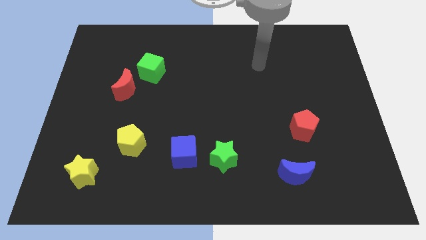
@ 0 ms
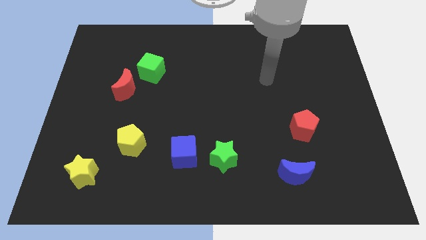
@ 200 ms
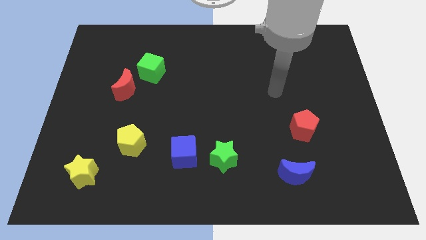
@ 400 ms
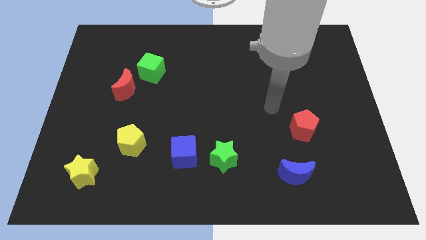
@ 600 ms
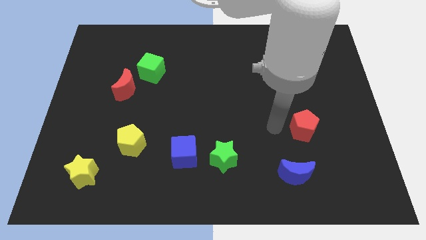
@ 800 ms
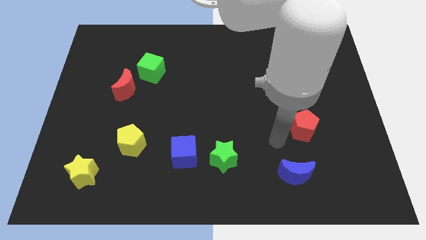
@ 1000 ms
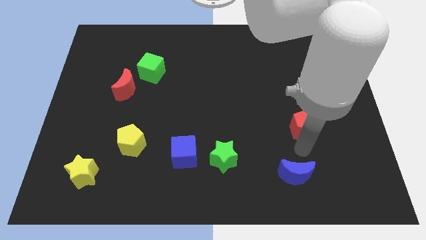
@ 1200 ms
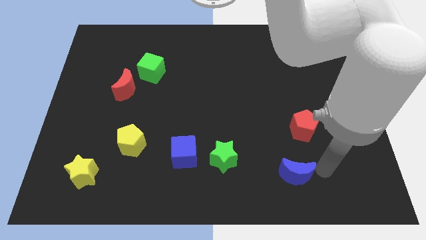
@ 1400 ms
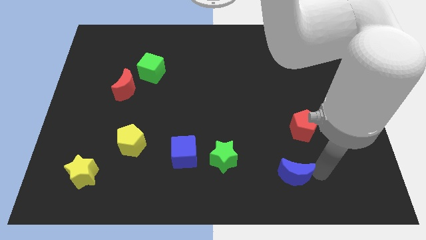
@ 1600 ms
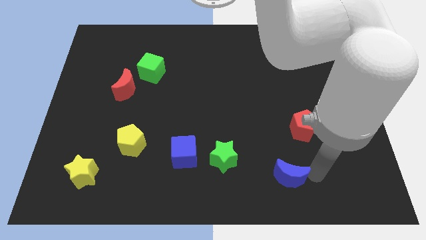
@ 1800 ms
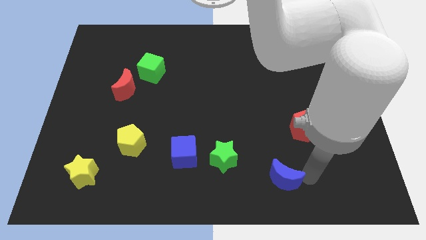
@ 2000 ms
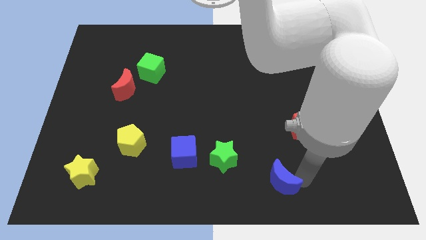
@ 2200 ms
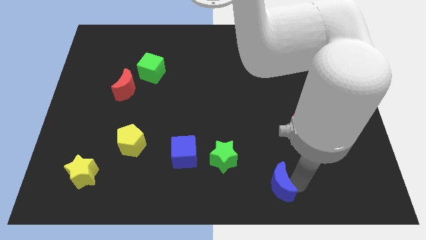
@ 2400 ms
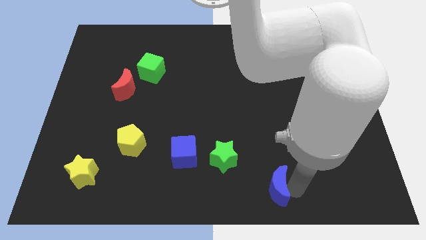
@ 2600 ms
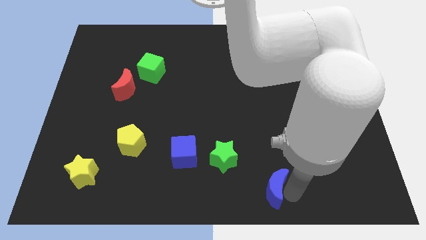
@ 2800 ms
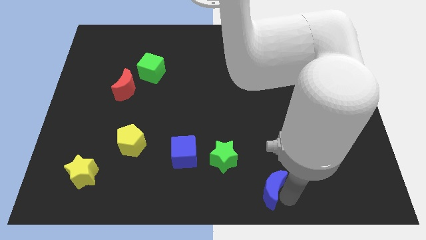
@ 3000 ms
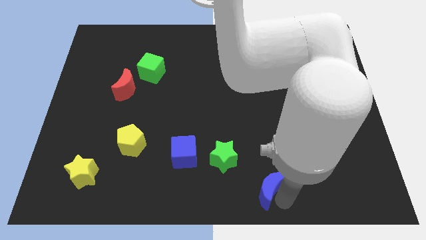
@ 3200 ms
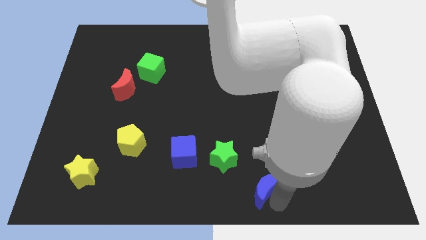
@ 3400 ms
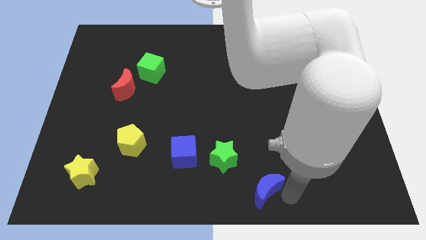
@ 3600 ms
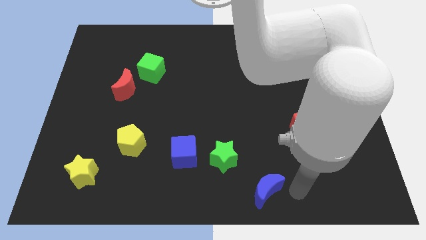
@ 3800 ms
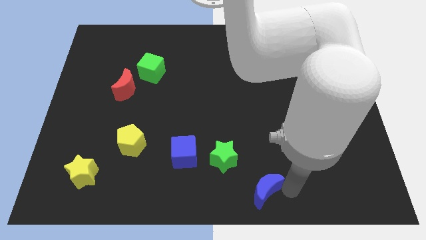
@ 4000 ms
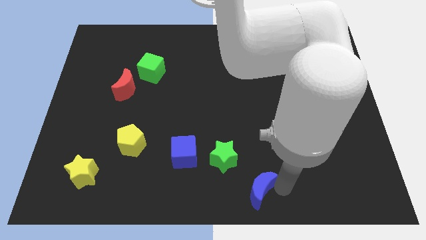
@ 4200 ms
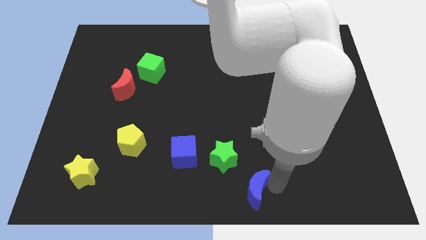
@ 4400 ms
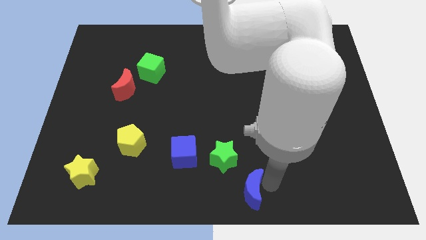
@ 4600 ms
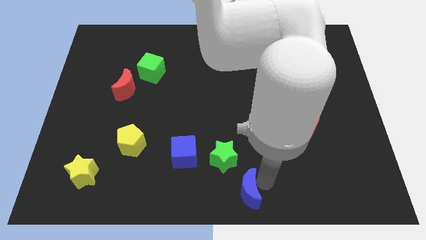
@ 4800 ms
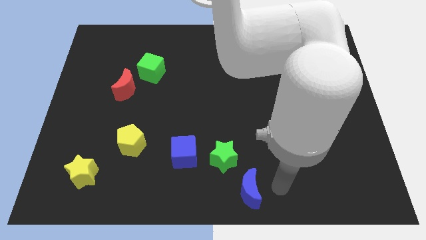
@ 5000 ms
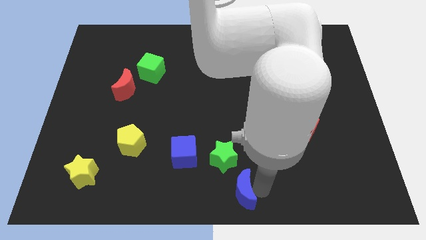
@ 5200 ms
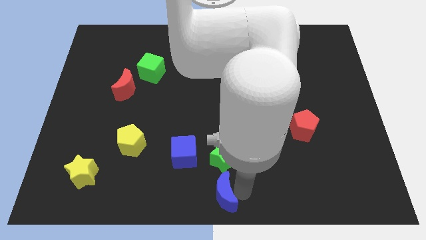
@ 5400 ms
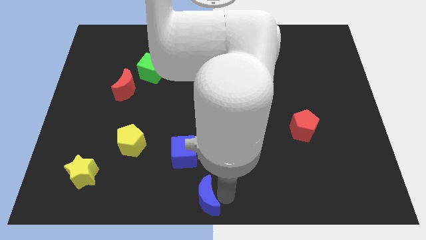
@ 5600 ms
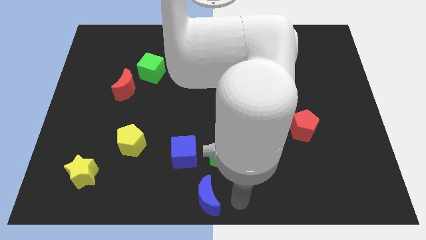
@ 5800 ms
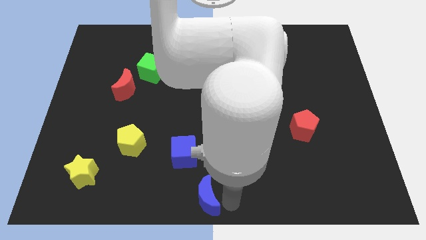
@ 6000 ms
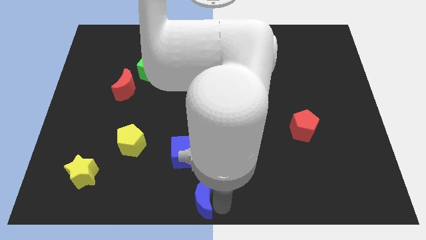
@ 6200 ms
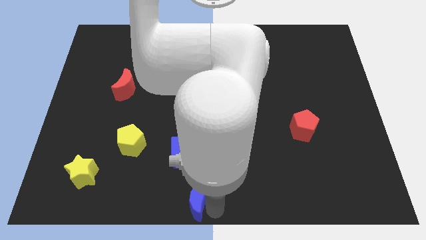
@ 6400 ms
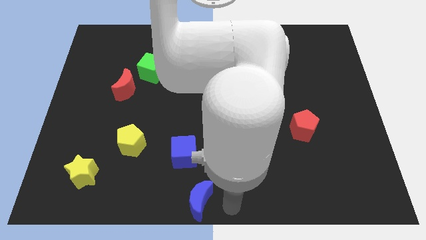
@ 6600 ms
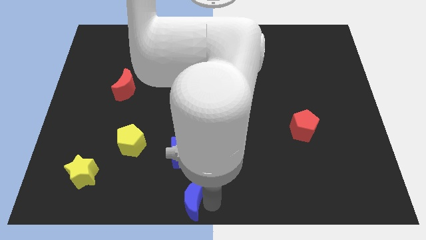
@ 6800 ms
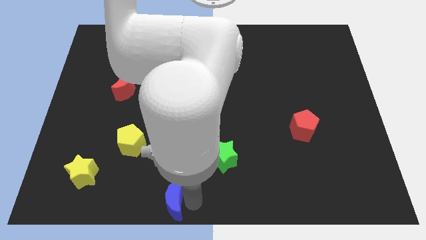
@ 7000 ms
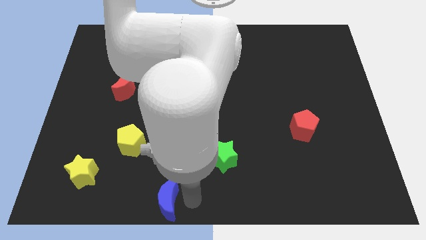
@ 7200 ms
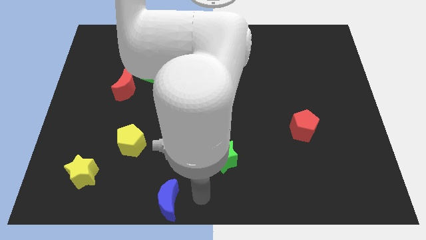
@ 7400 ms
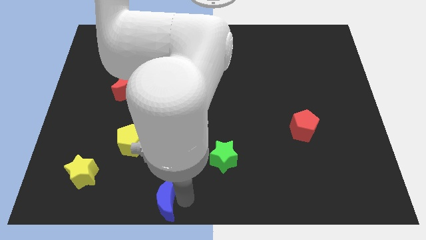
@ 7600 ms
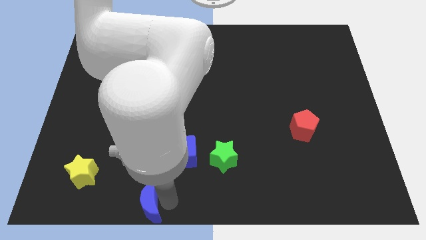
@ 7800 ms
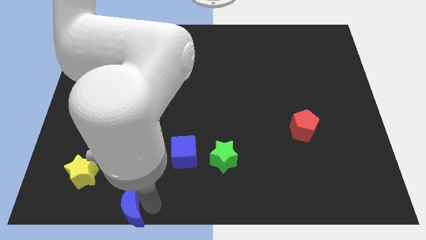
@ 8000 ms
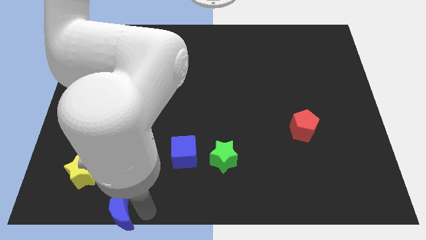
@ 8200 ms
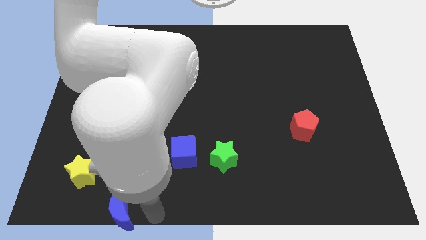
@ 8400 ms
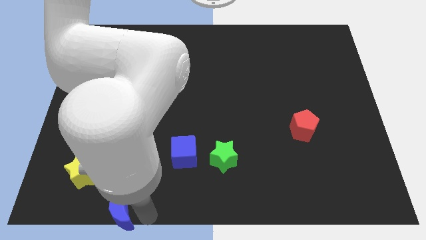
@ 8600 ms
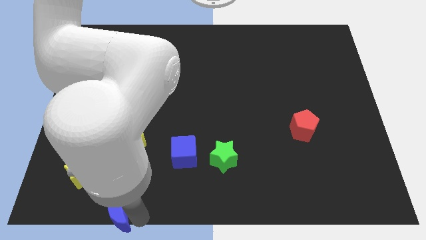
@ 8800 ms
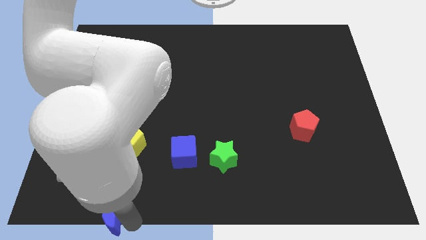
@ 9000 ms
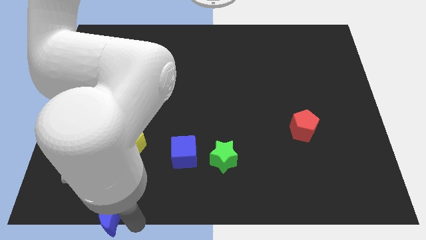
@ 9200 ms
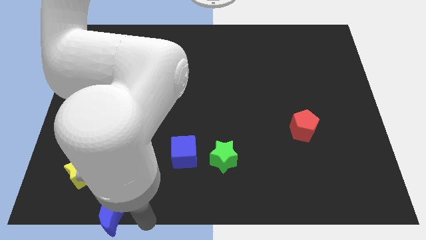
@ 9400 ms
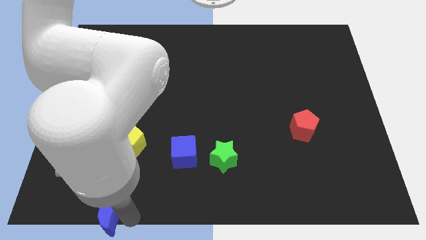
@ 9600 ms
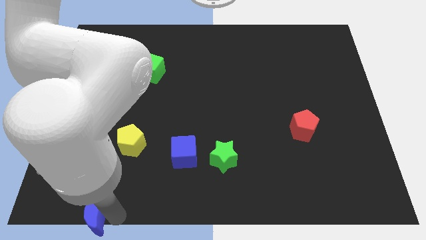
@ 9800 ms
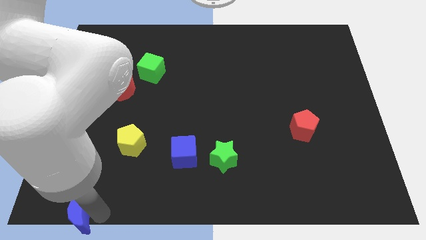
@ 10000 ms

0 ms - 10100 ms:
move the blue moon to the bottom left corner

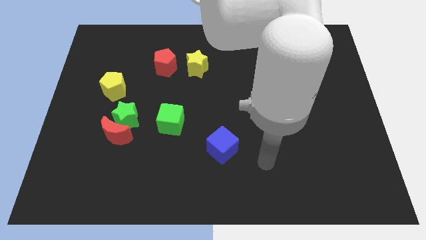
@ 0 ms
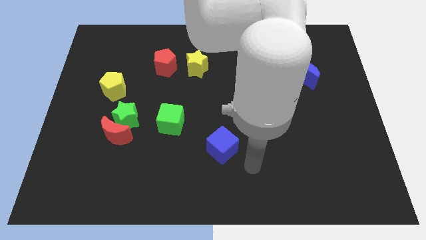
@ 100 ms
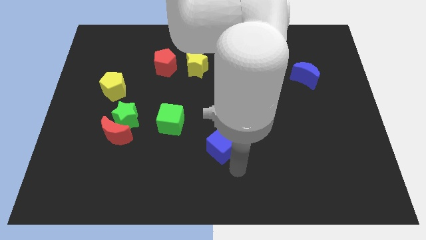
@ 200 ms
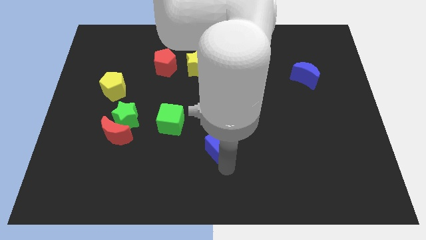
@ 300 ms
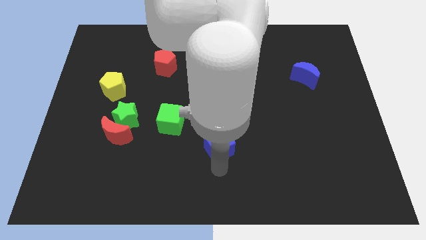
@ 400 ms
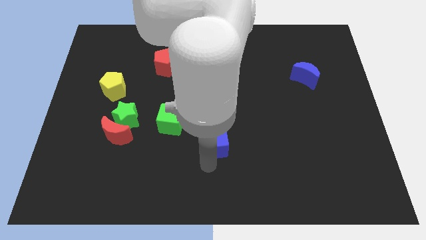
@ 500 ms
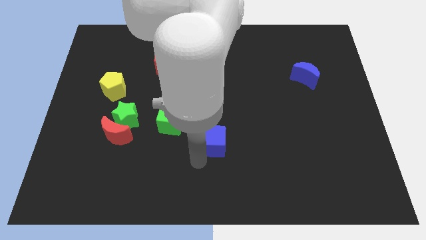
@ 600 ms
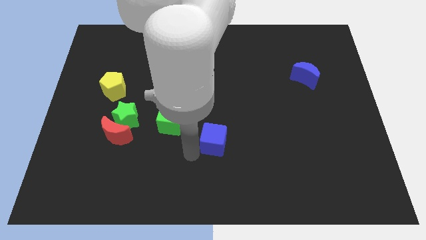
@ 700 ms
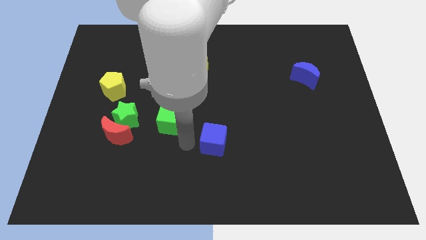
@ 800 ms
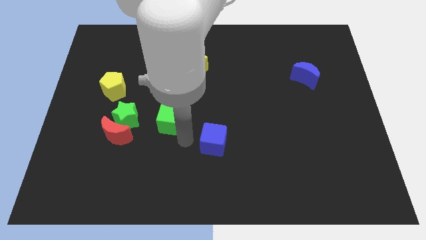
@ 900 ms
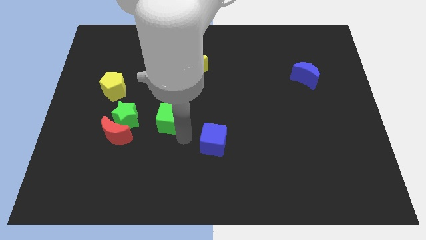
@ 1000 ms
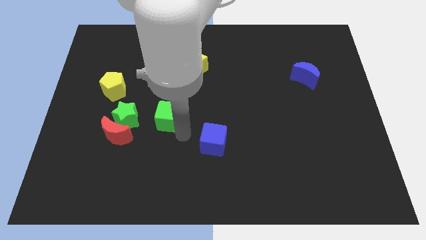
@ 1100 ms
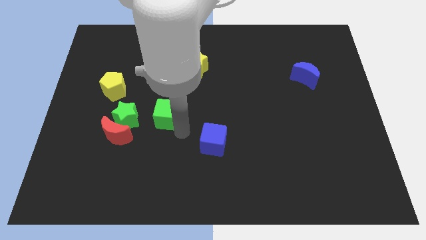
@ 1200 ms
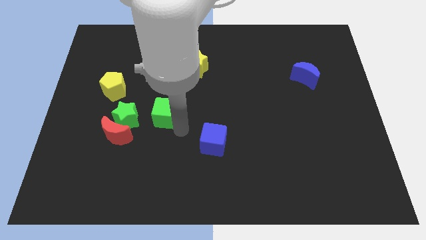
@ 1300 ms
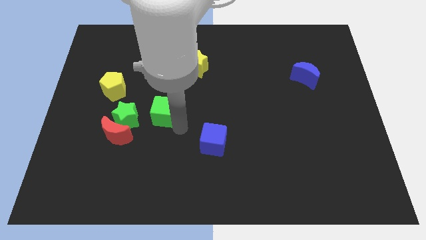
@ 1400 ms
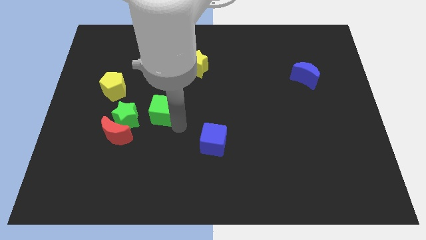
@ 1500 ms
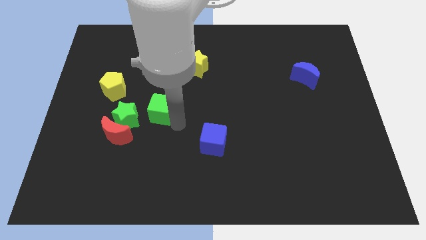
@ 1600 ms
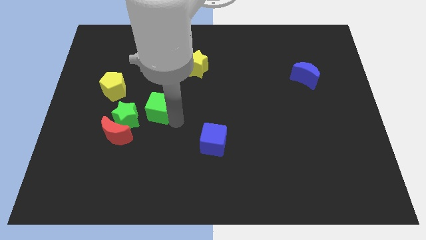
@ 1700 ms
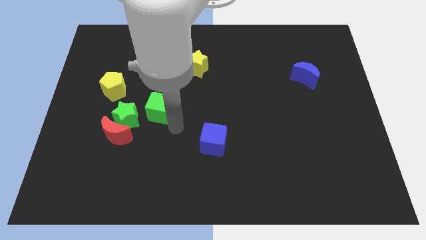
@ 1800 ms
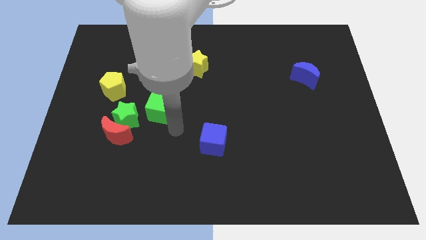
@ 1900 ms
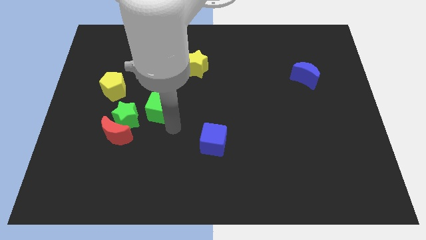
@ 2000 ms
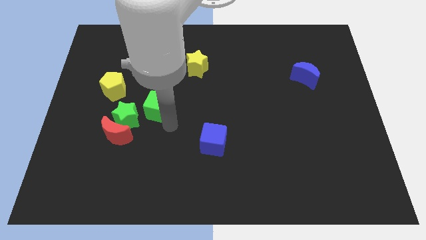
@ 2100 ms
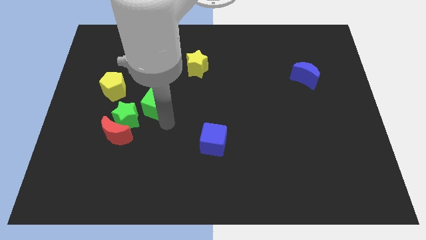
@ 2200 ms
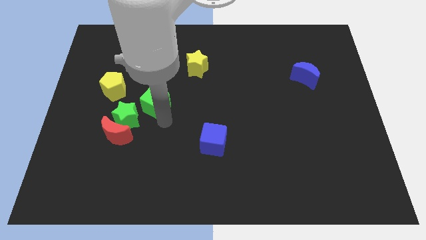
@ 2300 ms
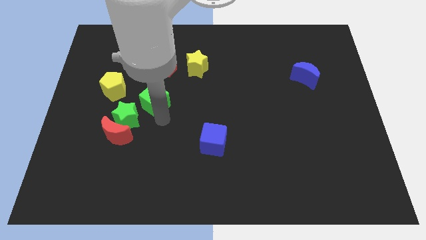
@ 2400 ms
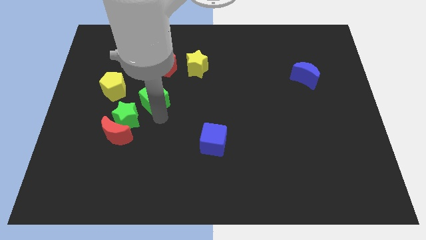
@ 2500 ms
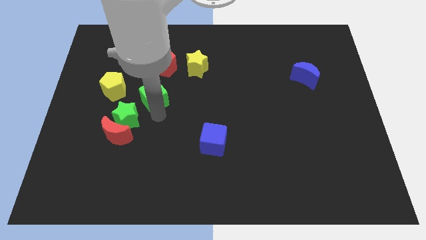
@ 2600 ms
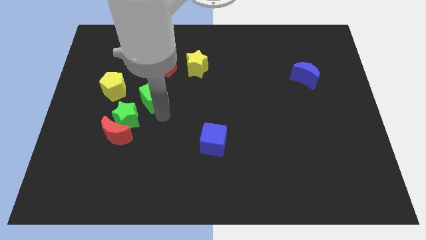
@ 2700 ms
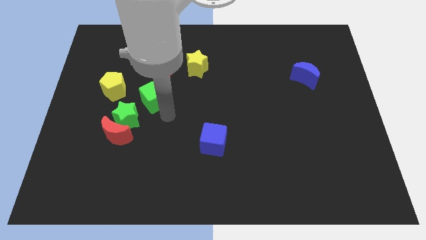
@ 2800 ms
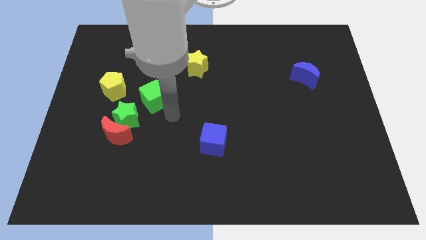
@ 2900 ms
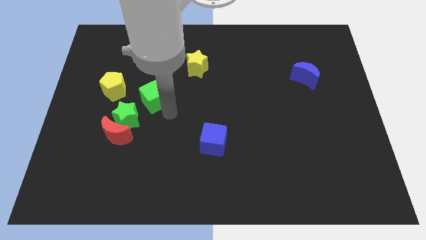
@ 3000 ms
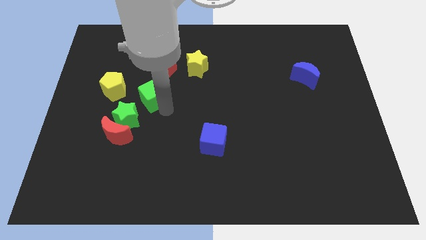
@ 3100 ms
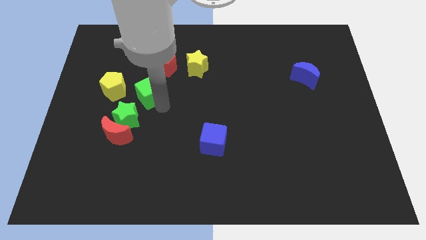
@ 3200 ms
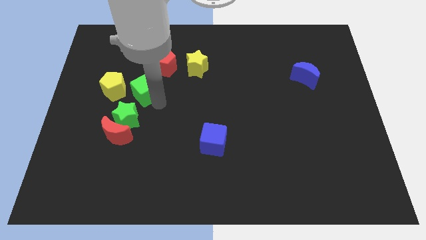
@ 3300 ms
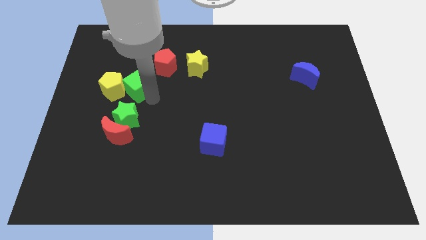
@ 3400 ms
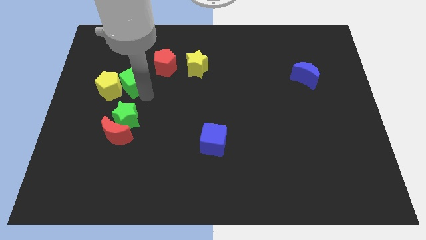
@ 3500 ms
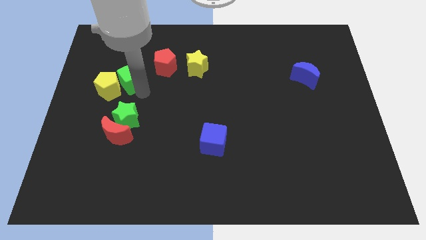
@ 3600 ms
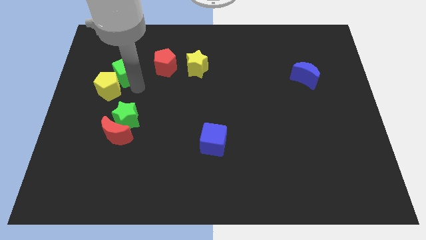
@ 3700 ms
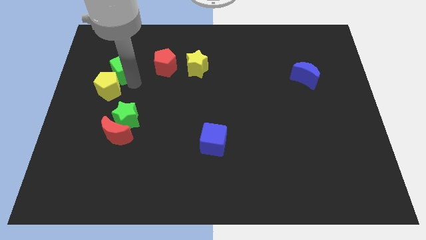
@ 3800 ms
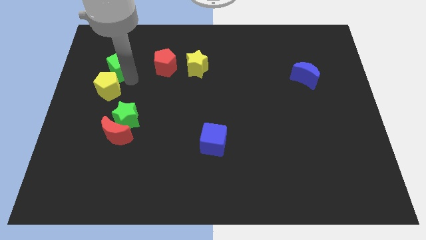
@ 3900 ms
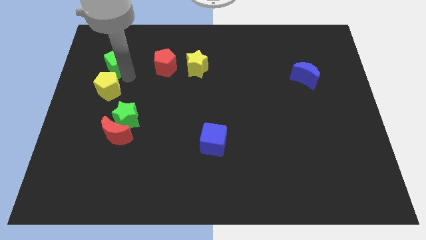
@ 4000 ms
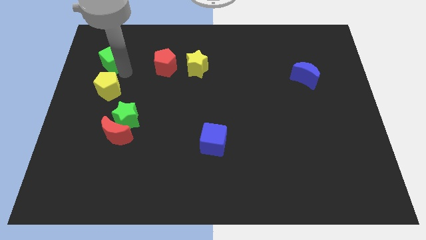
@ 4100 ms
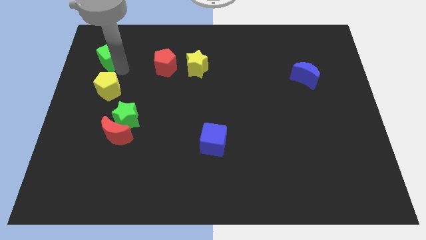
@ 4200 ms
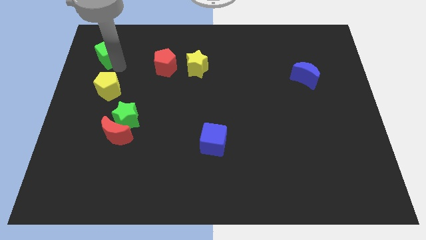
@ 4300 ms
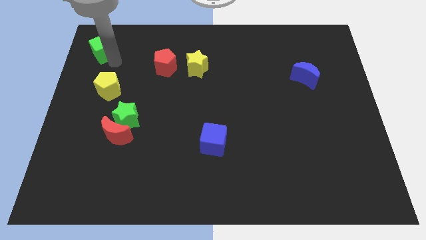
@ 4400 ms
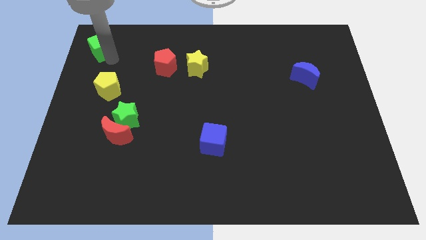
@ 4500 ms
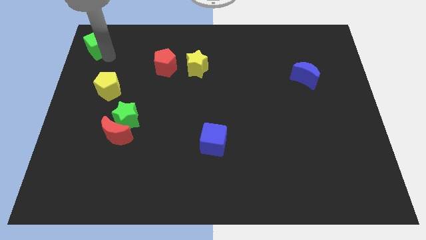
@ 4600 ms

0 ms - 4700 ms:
move the green cube to the top left corner
